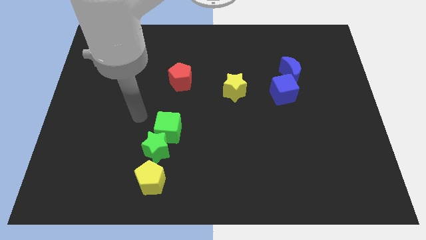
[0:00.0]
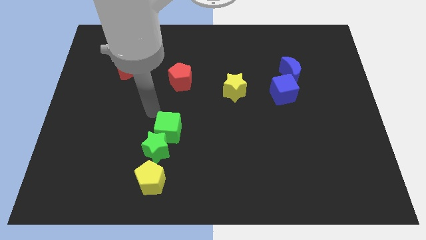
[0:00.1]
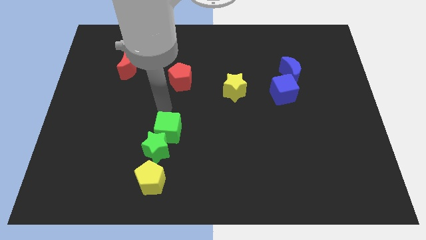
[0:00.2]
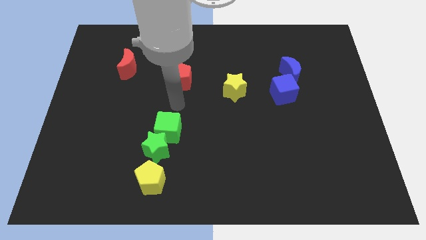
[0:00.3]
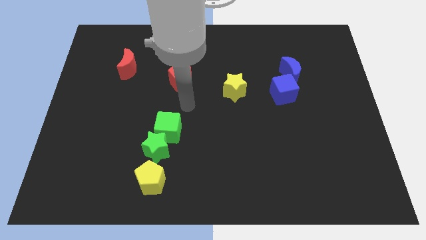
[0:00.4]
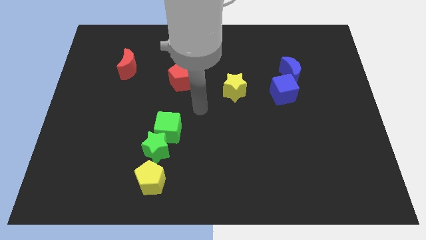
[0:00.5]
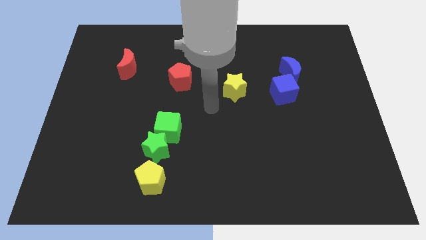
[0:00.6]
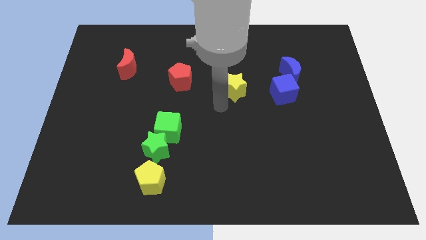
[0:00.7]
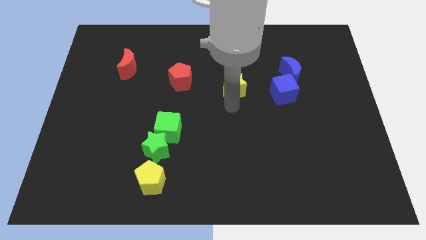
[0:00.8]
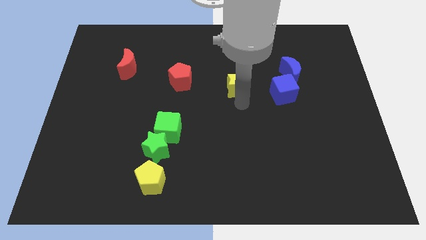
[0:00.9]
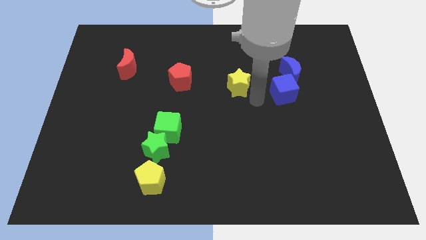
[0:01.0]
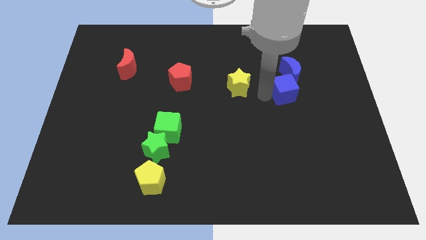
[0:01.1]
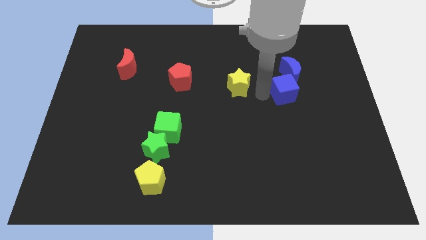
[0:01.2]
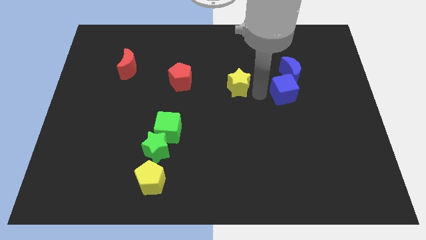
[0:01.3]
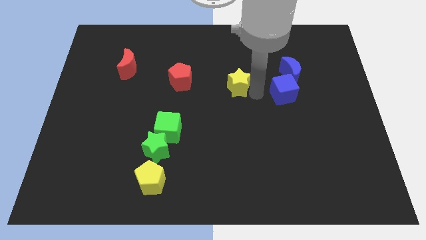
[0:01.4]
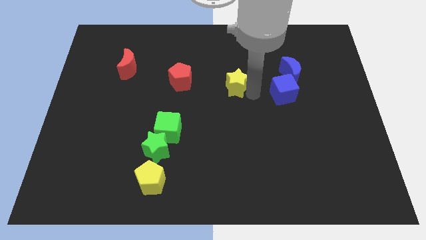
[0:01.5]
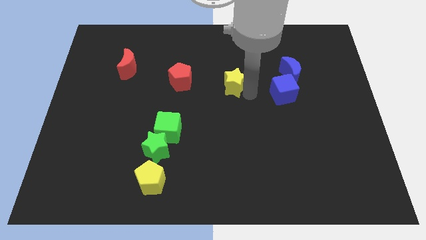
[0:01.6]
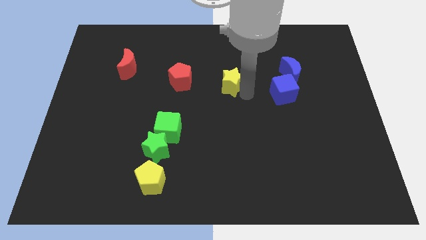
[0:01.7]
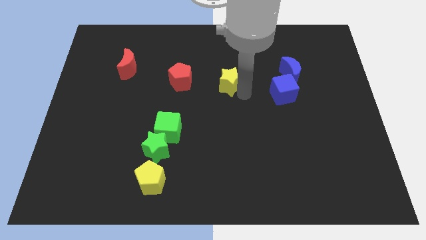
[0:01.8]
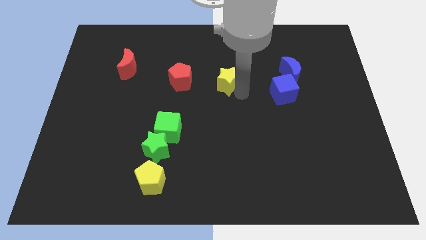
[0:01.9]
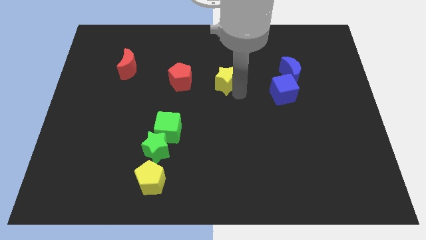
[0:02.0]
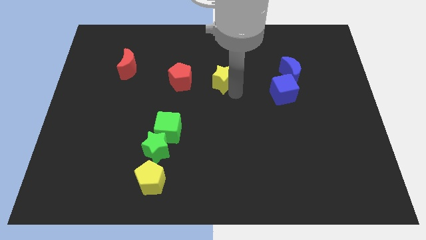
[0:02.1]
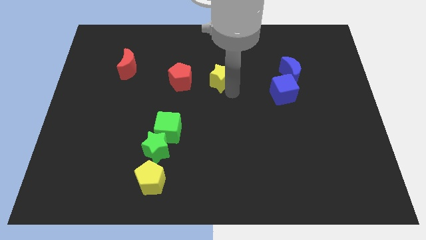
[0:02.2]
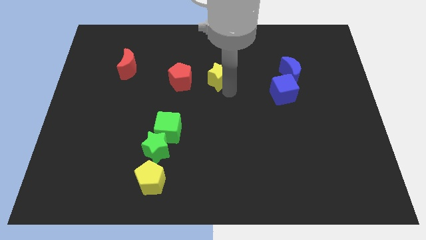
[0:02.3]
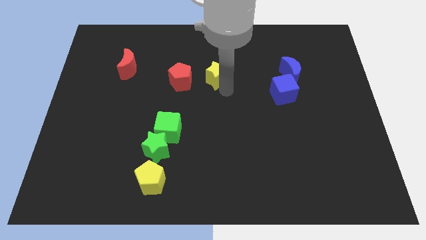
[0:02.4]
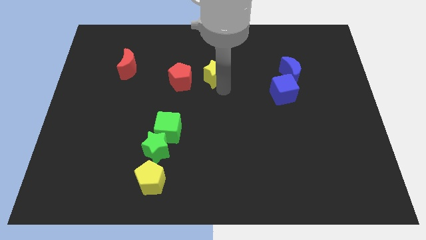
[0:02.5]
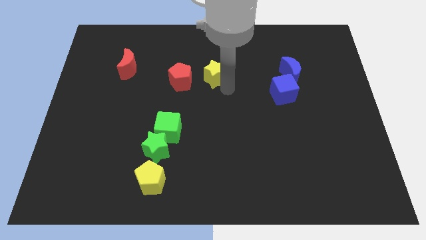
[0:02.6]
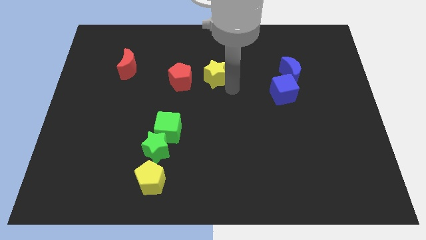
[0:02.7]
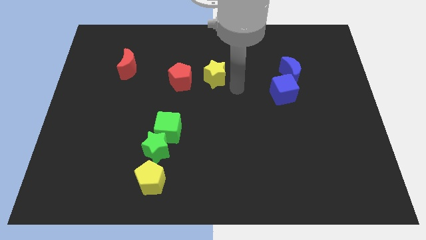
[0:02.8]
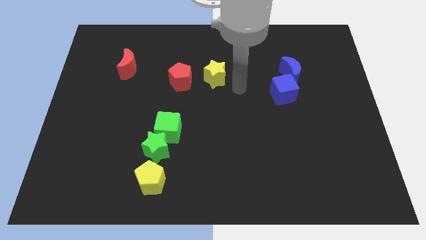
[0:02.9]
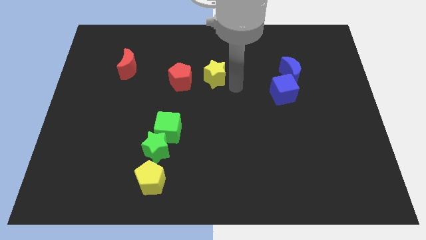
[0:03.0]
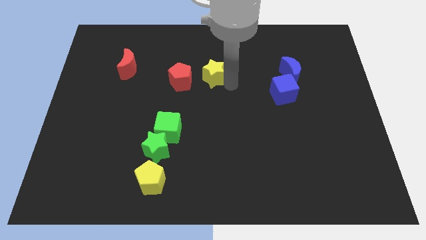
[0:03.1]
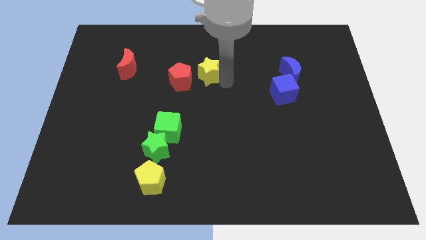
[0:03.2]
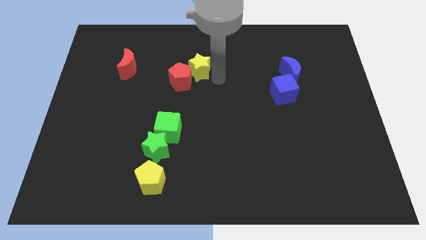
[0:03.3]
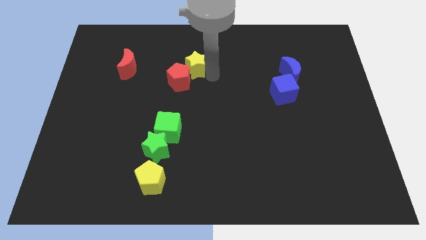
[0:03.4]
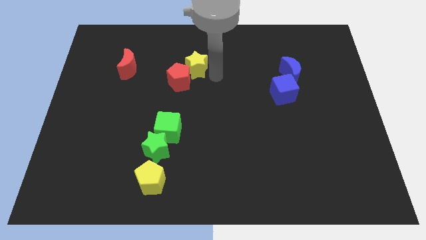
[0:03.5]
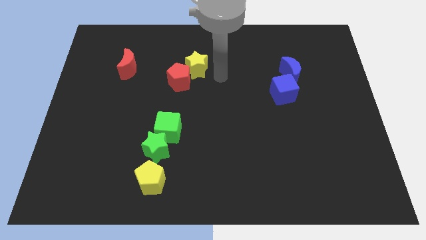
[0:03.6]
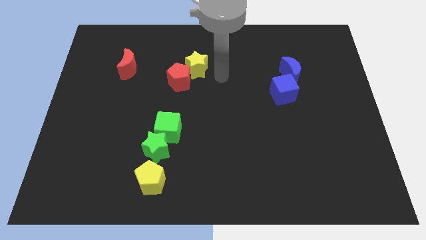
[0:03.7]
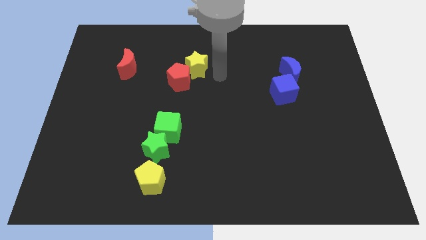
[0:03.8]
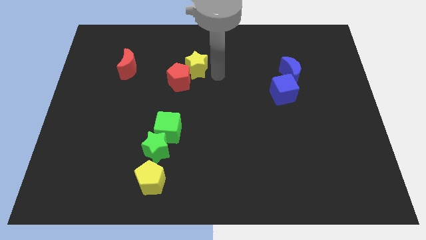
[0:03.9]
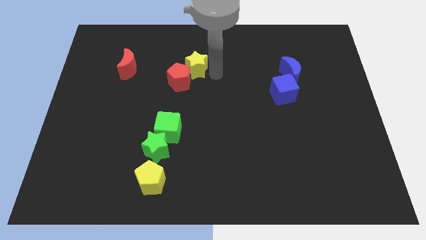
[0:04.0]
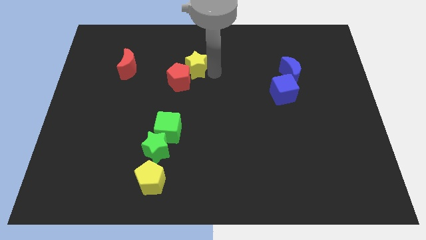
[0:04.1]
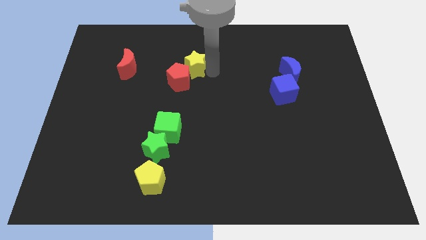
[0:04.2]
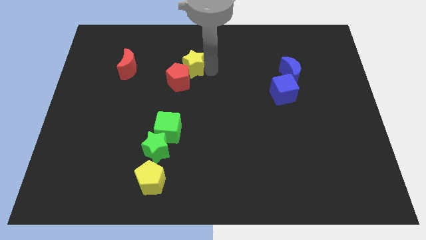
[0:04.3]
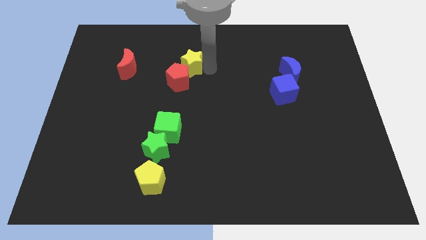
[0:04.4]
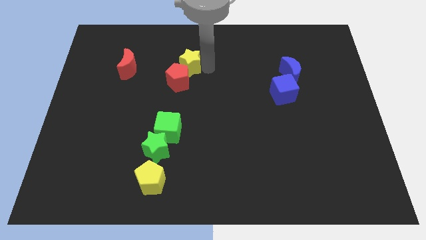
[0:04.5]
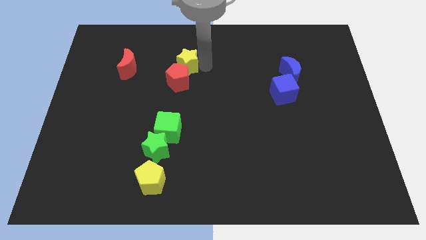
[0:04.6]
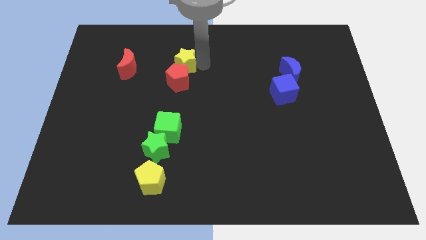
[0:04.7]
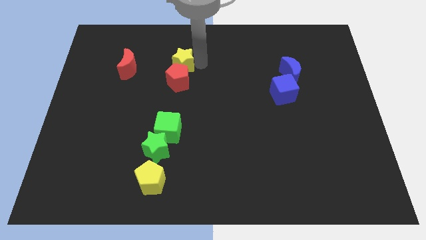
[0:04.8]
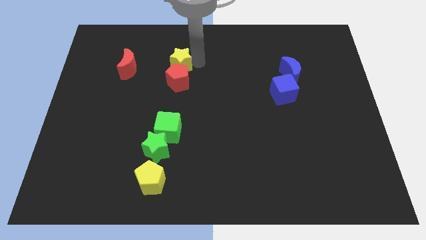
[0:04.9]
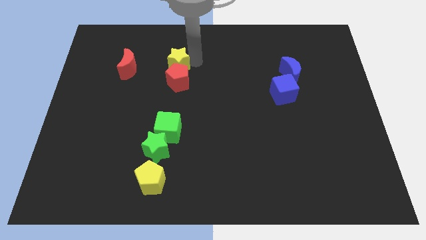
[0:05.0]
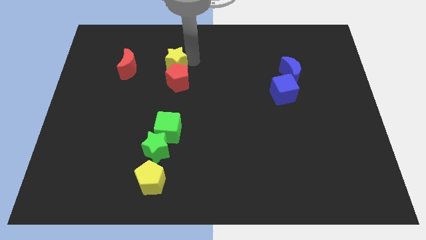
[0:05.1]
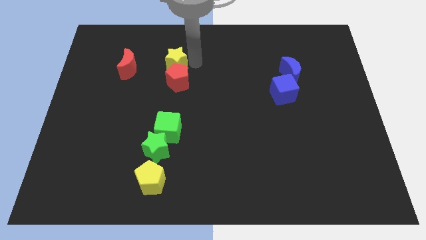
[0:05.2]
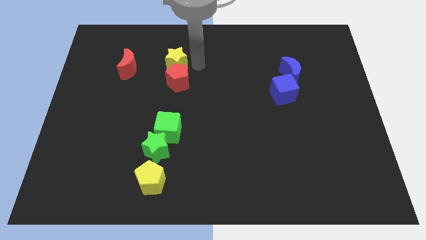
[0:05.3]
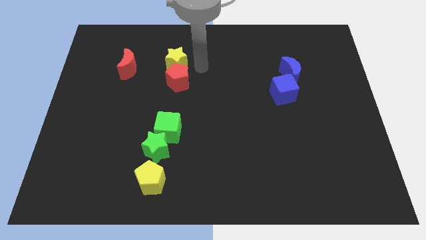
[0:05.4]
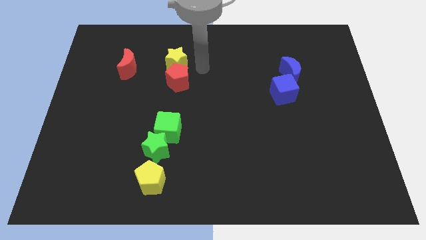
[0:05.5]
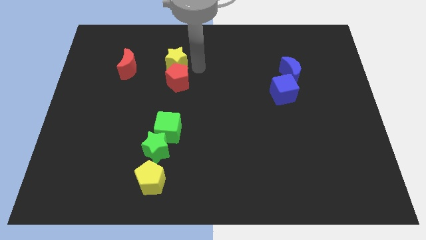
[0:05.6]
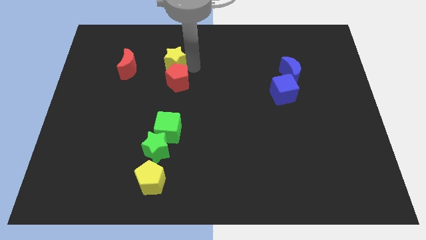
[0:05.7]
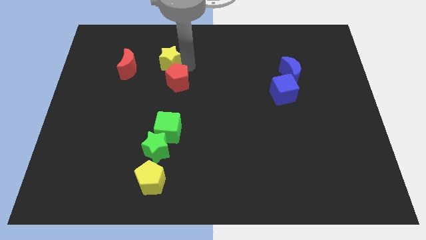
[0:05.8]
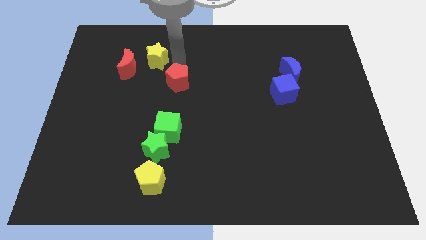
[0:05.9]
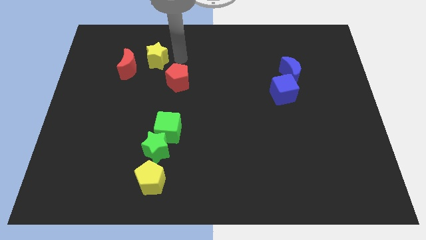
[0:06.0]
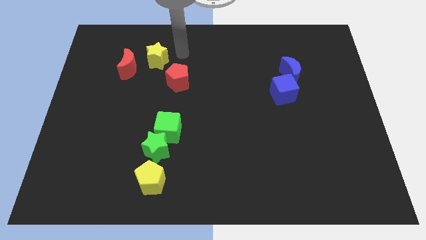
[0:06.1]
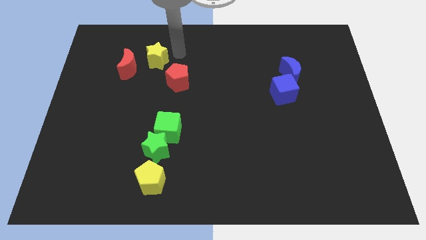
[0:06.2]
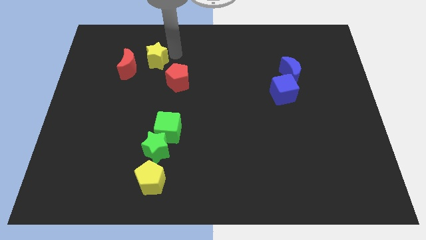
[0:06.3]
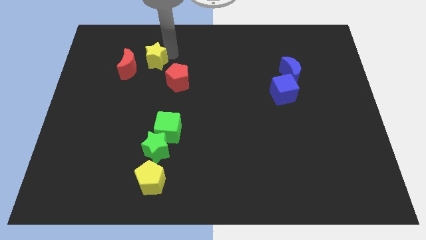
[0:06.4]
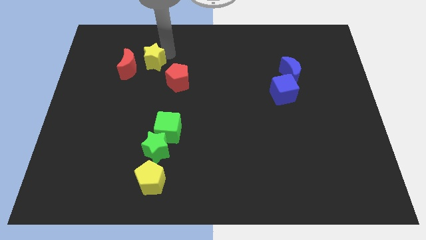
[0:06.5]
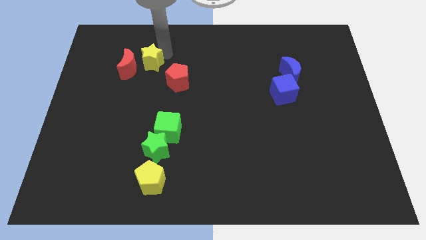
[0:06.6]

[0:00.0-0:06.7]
put the yellow star next to the red moon
